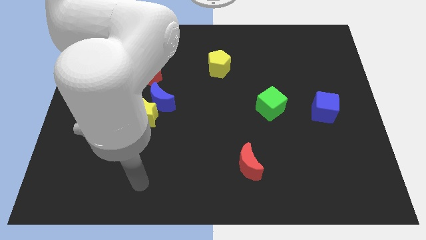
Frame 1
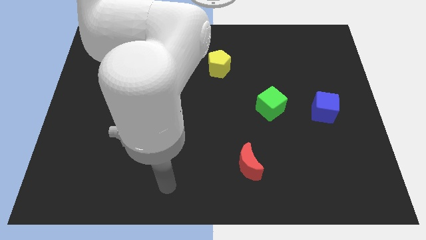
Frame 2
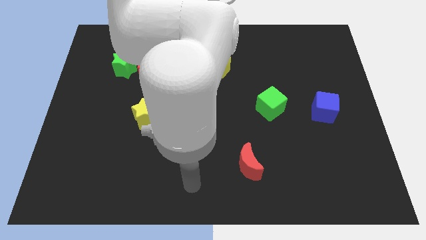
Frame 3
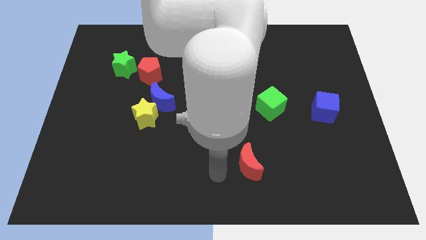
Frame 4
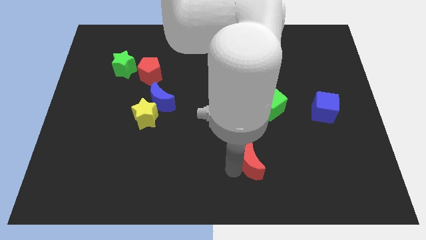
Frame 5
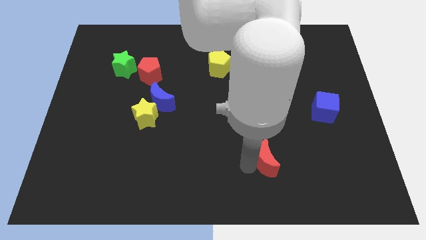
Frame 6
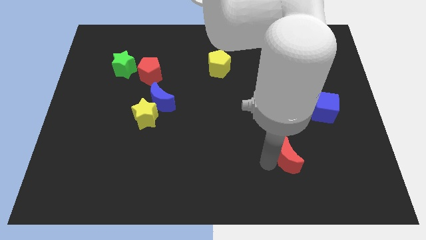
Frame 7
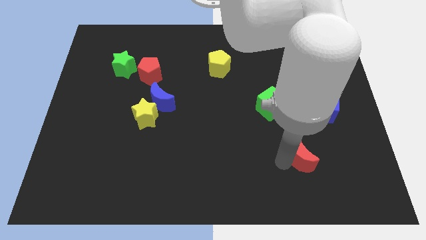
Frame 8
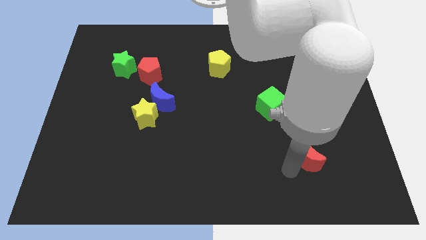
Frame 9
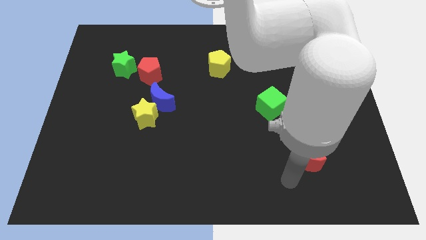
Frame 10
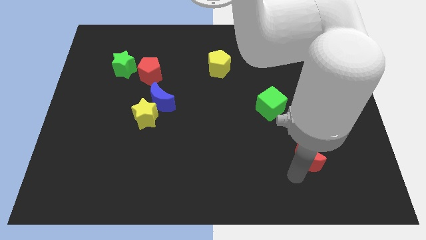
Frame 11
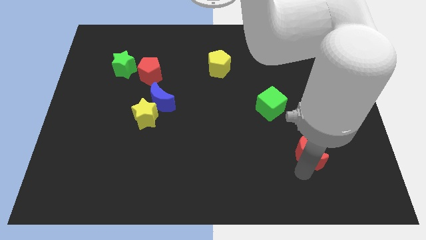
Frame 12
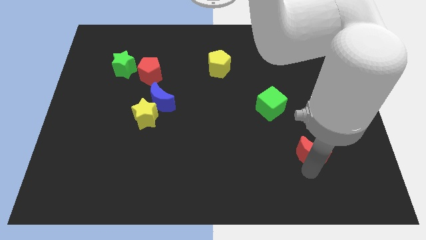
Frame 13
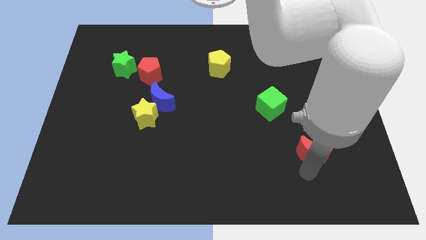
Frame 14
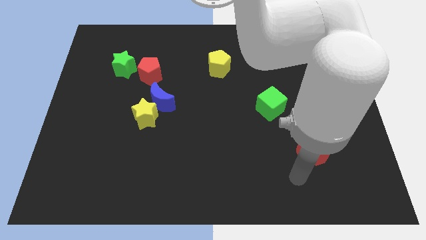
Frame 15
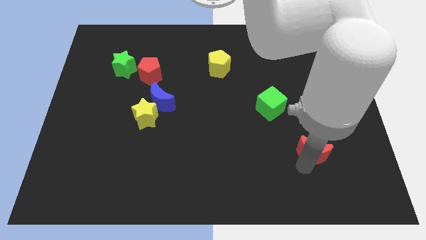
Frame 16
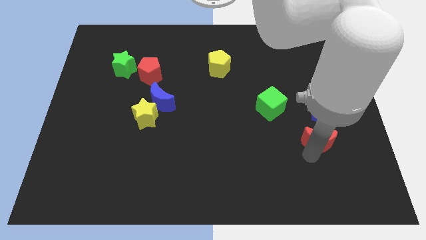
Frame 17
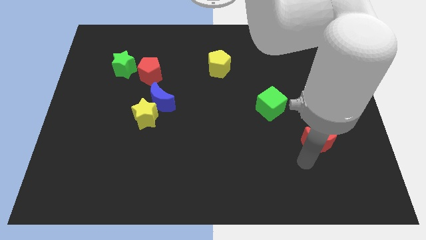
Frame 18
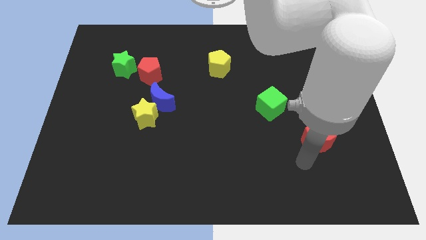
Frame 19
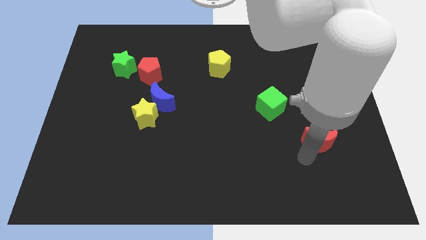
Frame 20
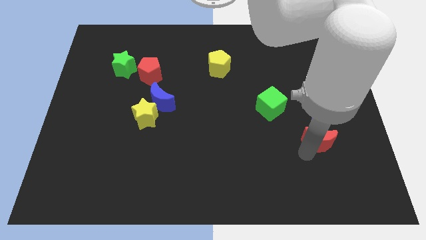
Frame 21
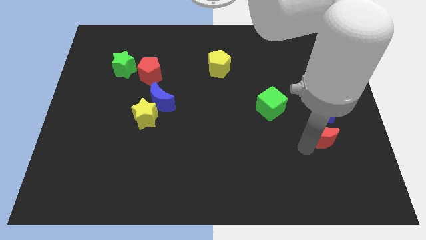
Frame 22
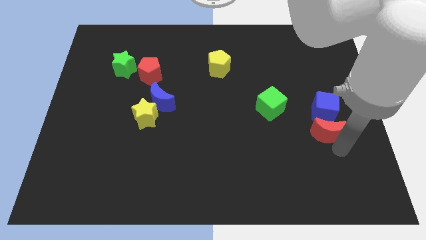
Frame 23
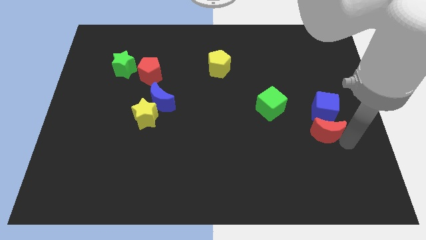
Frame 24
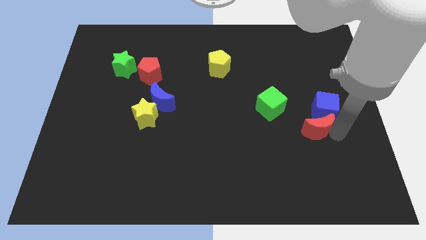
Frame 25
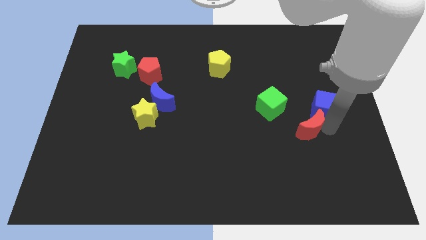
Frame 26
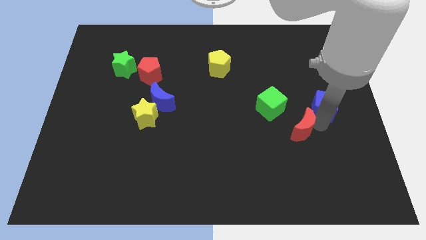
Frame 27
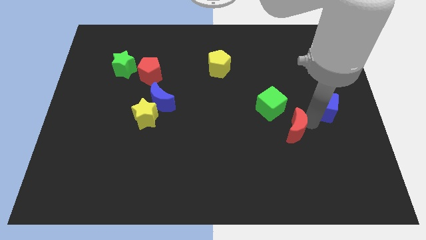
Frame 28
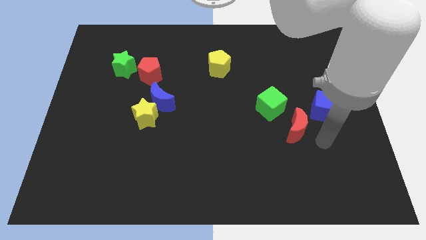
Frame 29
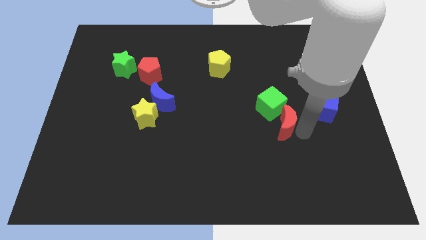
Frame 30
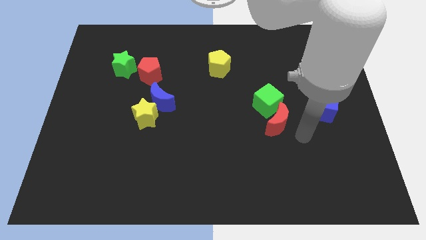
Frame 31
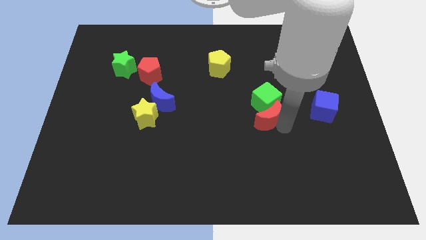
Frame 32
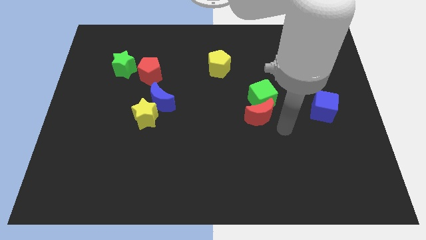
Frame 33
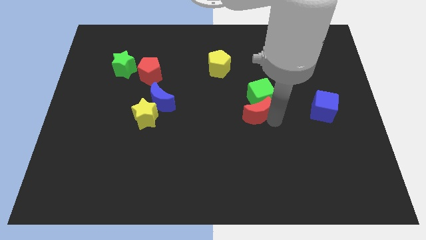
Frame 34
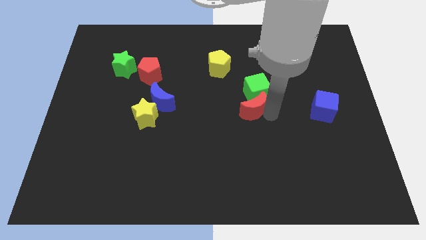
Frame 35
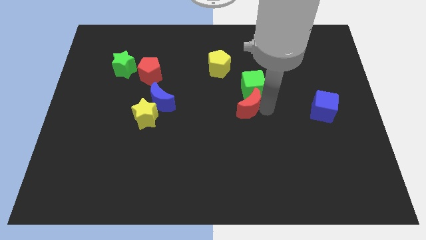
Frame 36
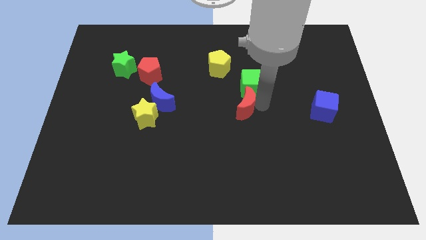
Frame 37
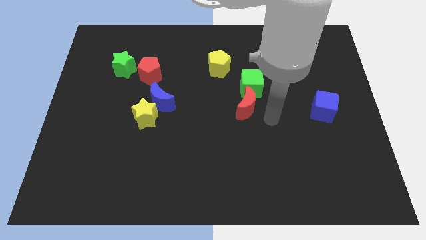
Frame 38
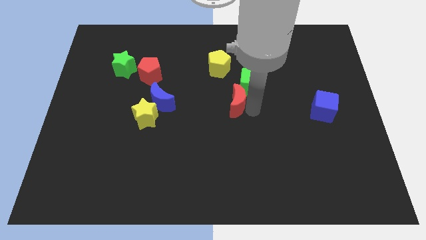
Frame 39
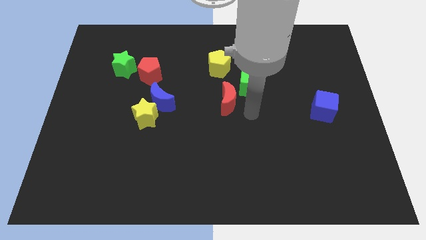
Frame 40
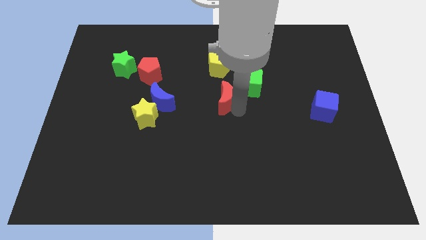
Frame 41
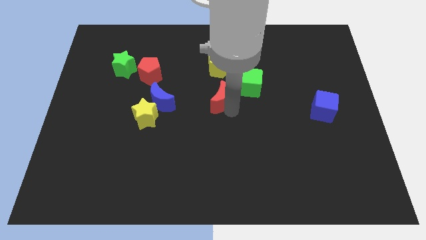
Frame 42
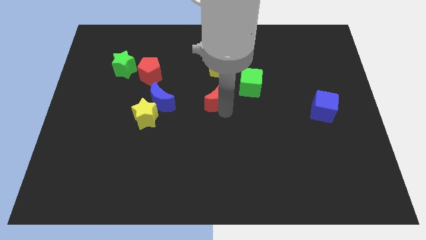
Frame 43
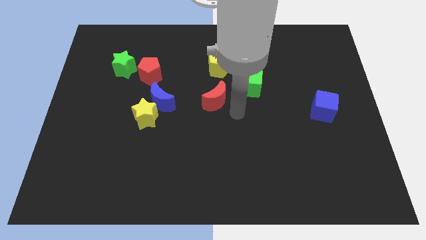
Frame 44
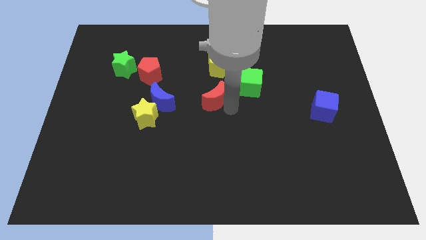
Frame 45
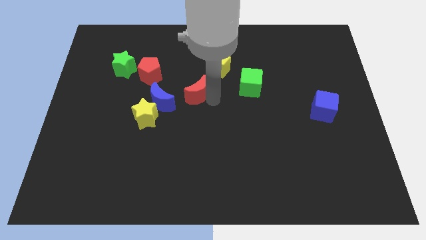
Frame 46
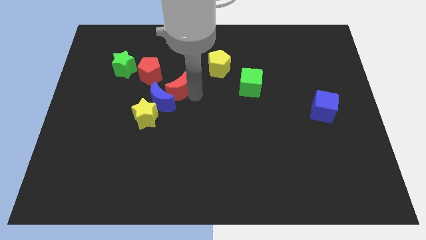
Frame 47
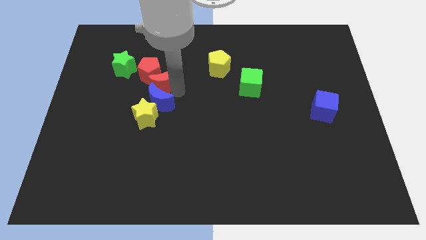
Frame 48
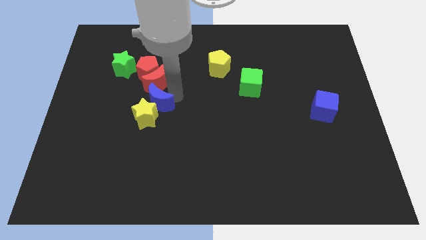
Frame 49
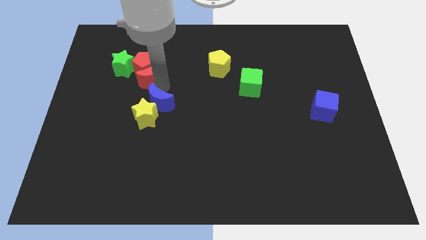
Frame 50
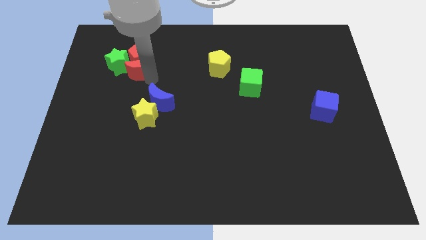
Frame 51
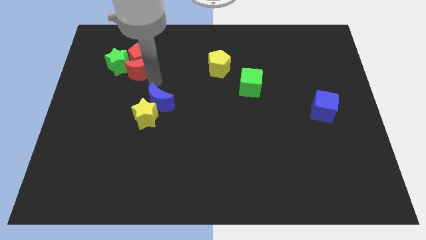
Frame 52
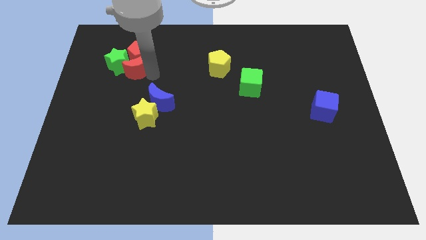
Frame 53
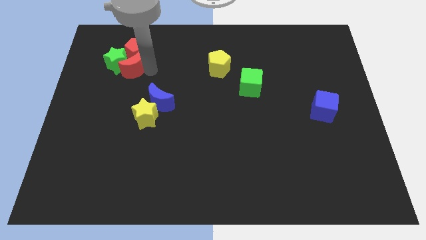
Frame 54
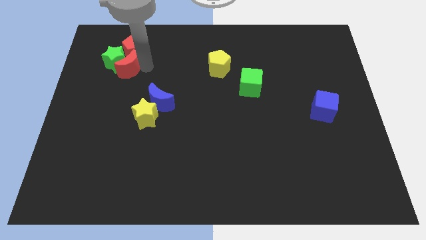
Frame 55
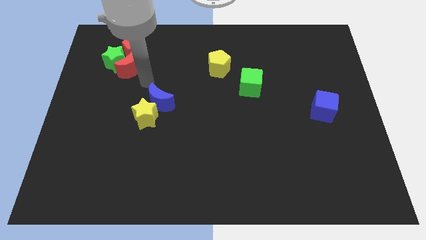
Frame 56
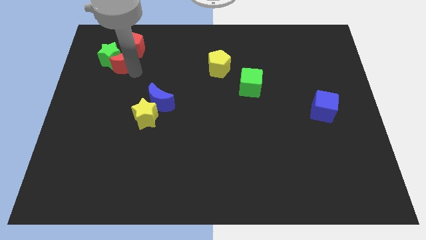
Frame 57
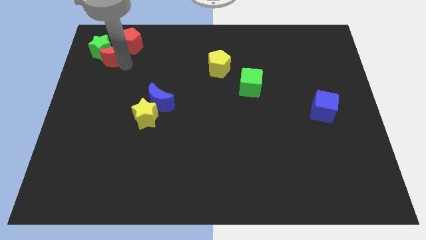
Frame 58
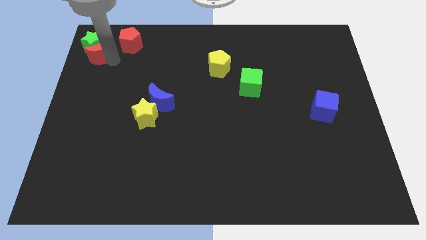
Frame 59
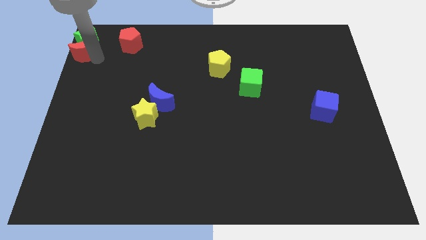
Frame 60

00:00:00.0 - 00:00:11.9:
put the red moon to the top left of the board
